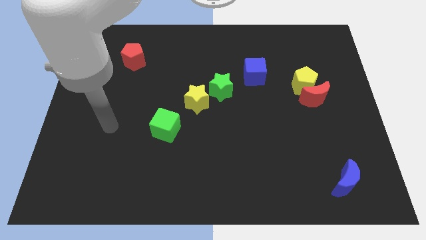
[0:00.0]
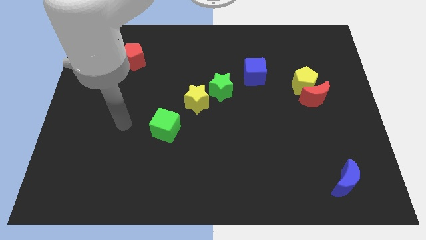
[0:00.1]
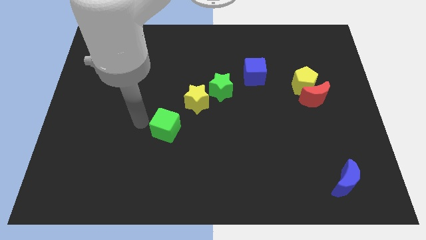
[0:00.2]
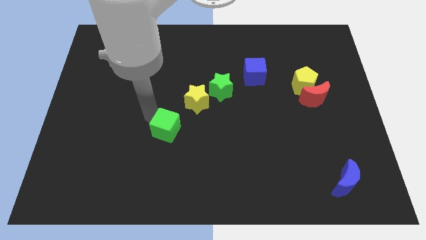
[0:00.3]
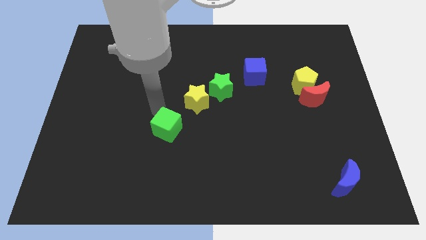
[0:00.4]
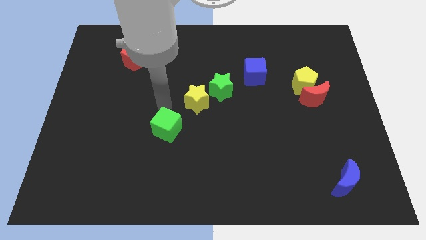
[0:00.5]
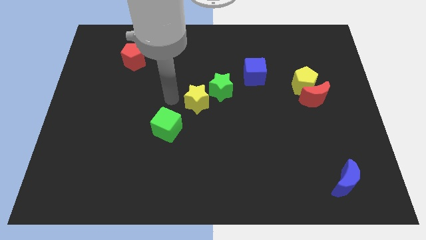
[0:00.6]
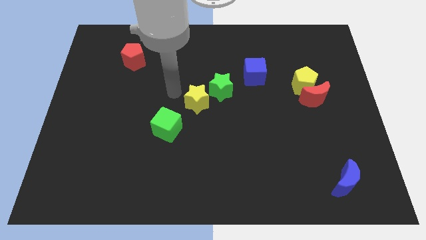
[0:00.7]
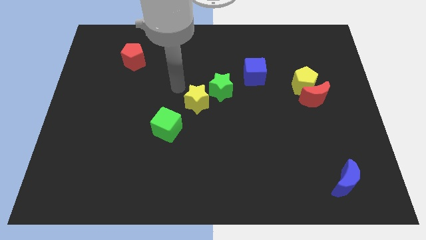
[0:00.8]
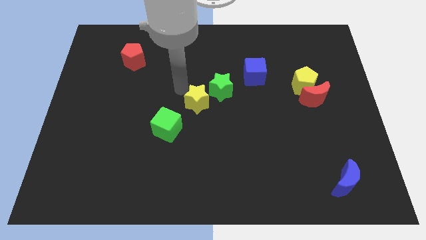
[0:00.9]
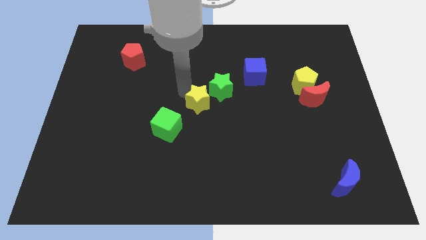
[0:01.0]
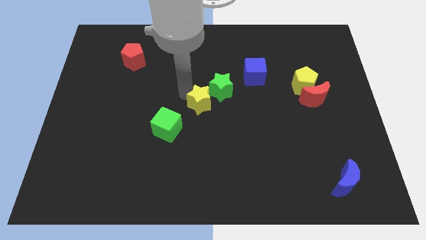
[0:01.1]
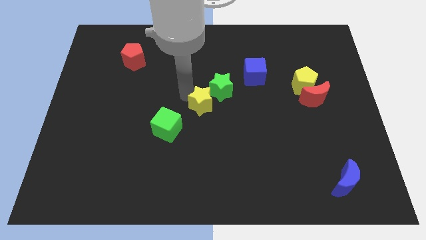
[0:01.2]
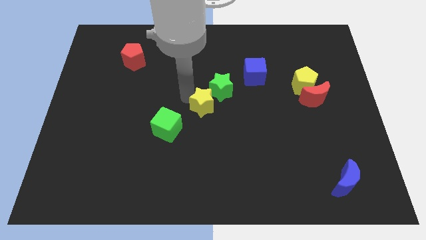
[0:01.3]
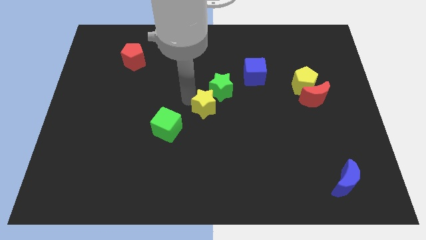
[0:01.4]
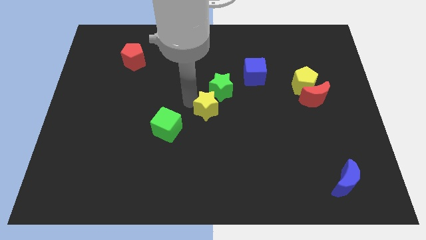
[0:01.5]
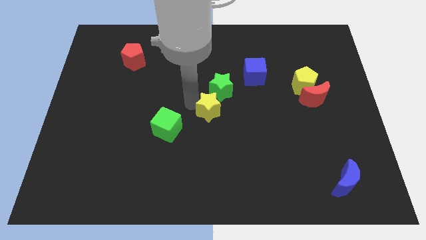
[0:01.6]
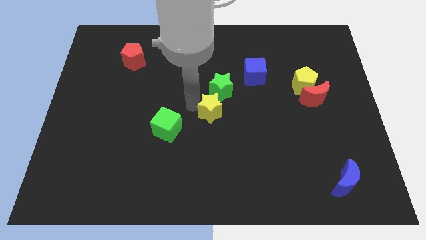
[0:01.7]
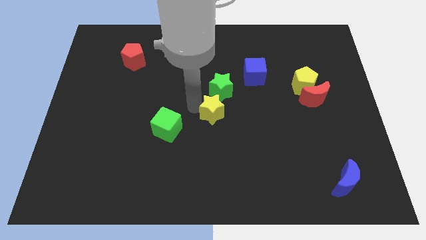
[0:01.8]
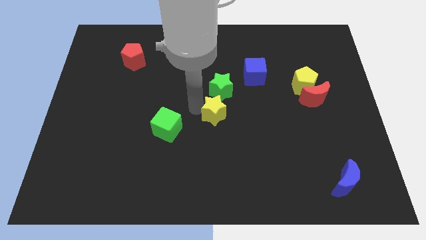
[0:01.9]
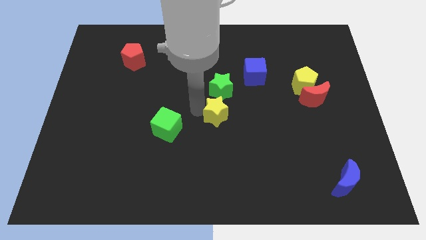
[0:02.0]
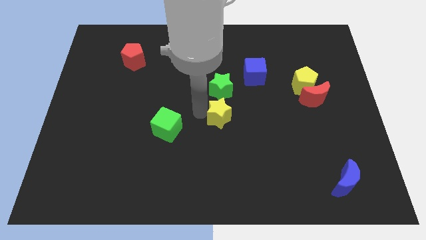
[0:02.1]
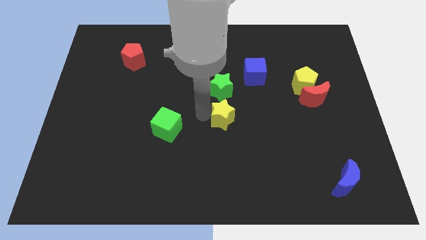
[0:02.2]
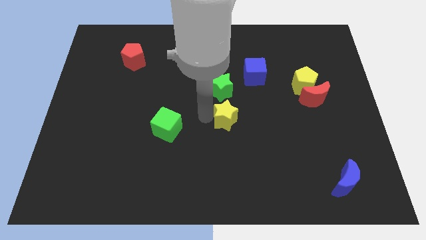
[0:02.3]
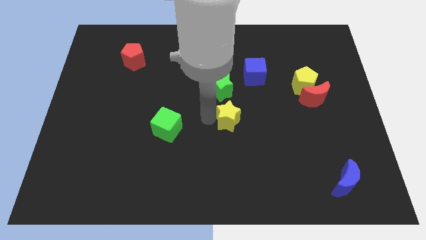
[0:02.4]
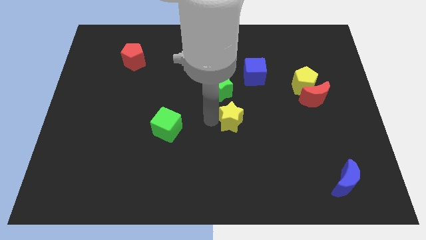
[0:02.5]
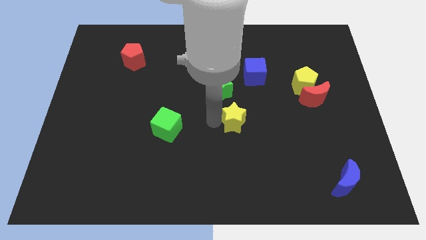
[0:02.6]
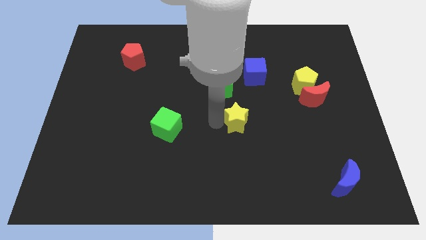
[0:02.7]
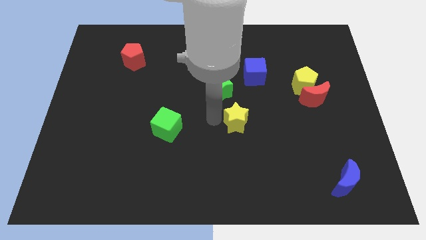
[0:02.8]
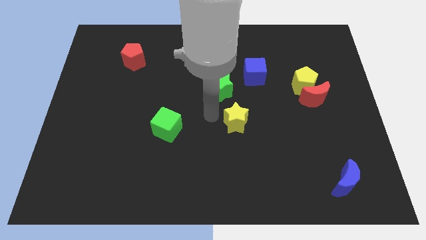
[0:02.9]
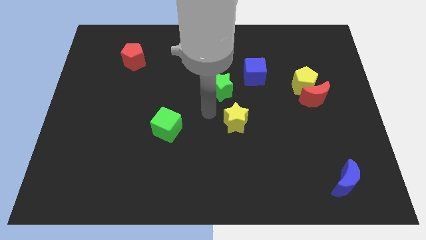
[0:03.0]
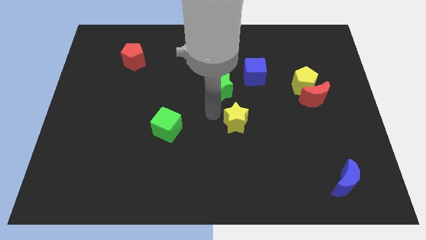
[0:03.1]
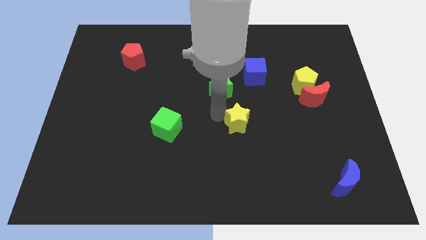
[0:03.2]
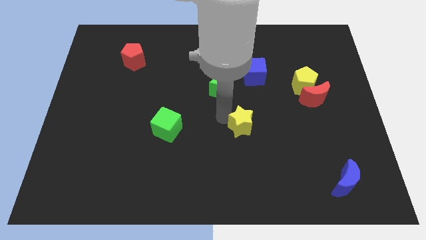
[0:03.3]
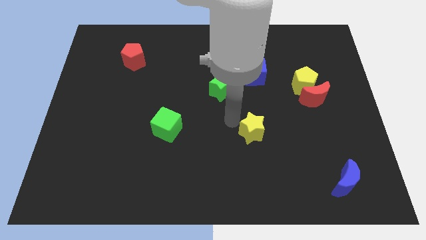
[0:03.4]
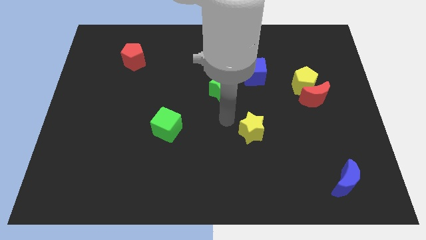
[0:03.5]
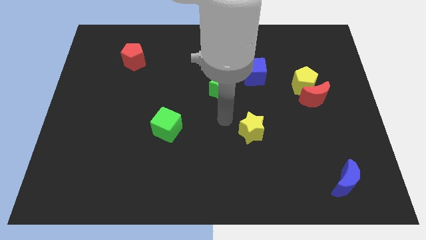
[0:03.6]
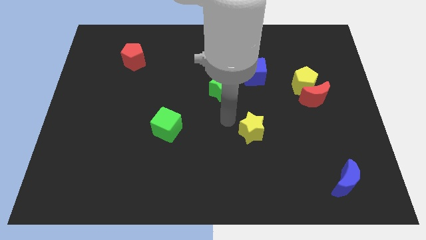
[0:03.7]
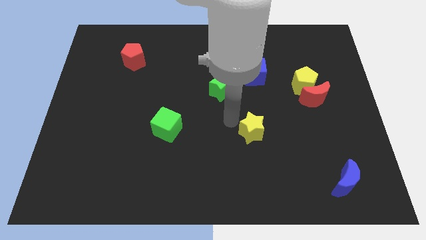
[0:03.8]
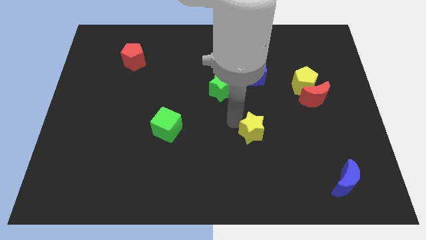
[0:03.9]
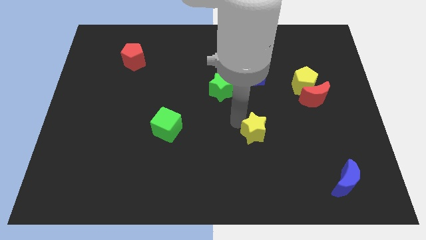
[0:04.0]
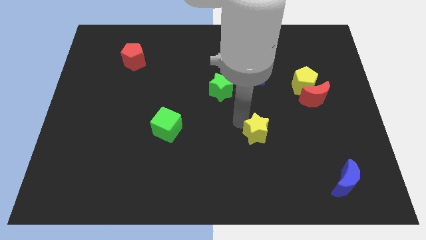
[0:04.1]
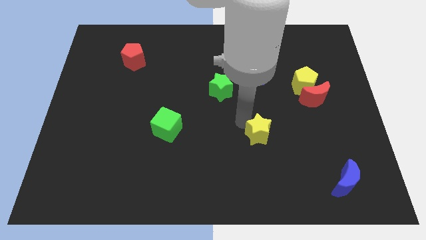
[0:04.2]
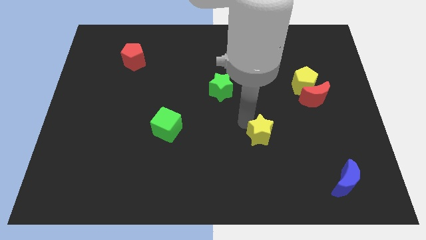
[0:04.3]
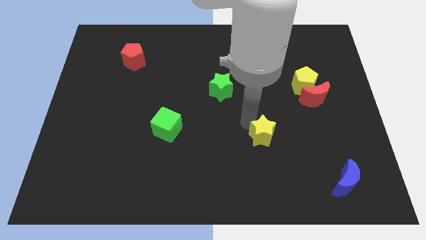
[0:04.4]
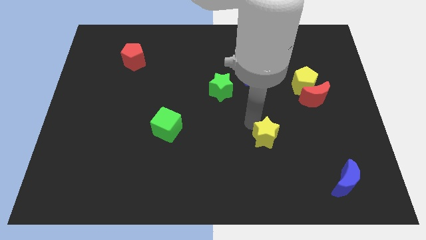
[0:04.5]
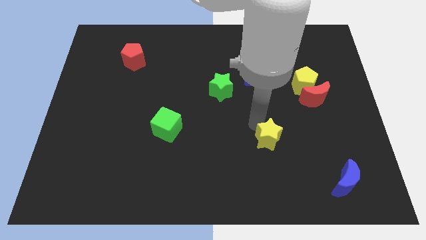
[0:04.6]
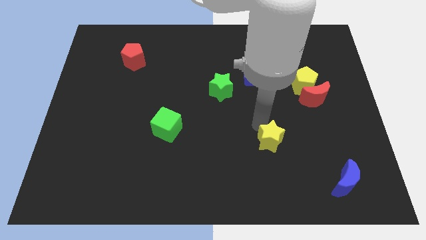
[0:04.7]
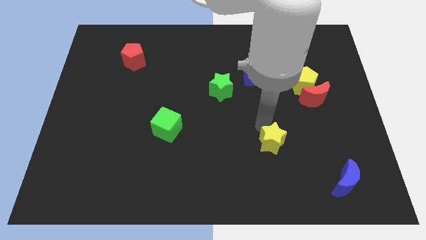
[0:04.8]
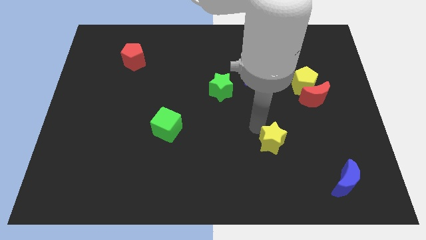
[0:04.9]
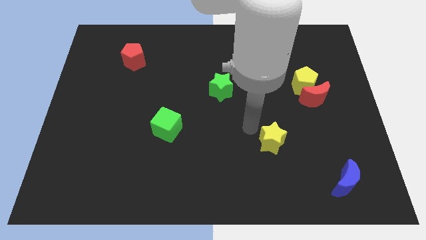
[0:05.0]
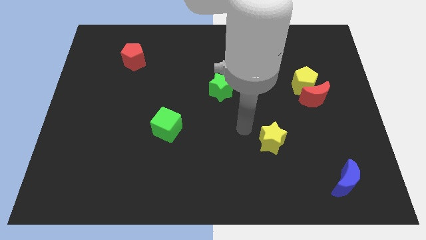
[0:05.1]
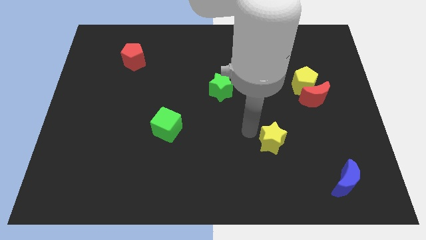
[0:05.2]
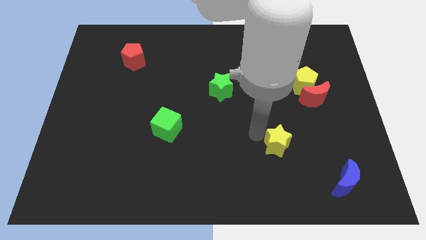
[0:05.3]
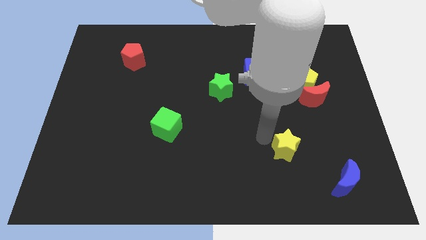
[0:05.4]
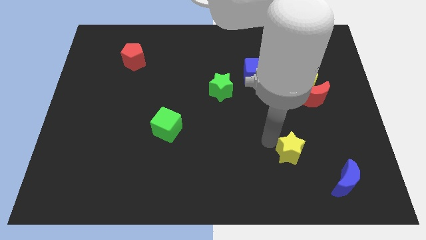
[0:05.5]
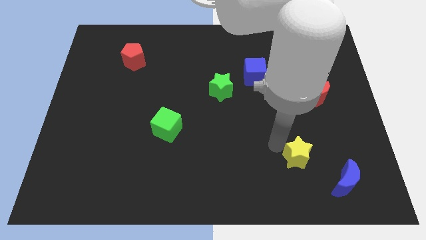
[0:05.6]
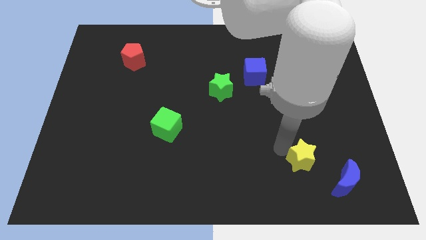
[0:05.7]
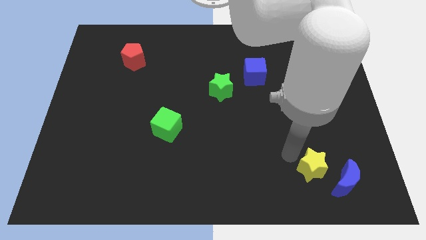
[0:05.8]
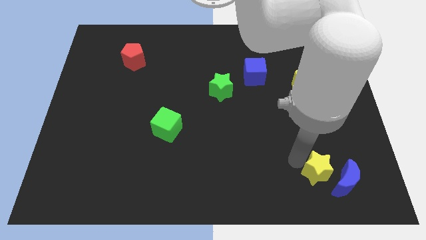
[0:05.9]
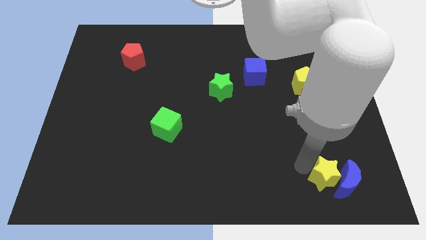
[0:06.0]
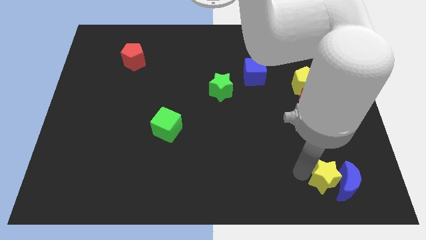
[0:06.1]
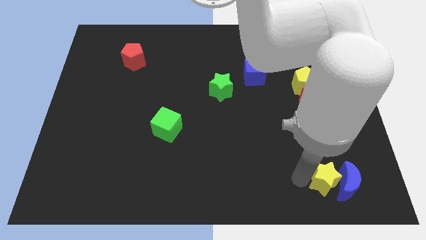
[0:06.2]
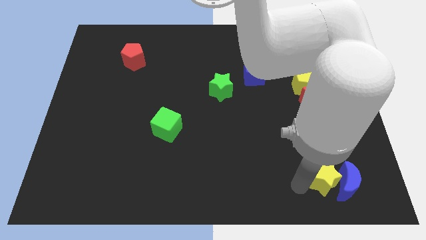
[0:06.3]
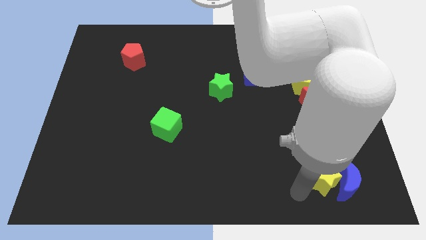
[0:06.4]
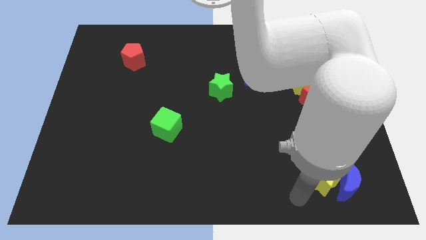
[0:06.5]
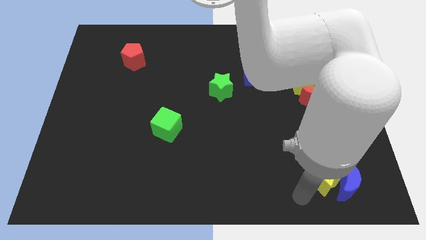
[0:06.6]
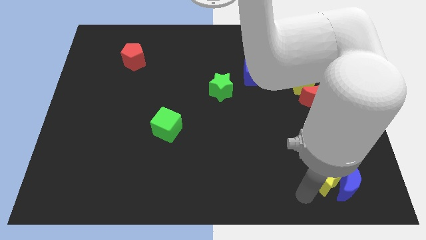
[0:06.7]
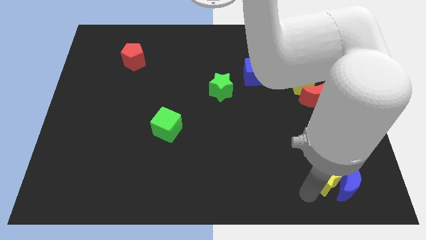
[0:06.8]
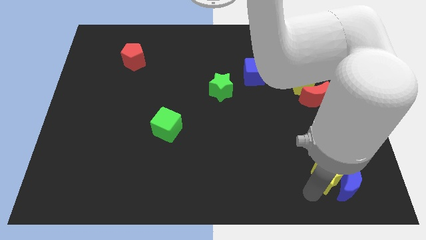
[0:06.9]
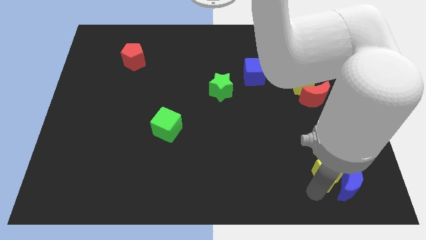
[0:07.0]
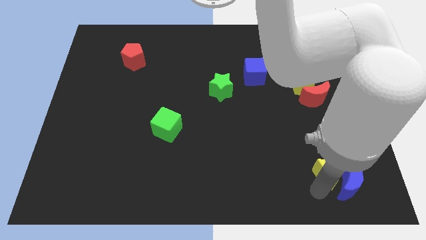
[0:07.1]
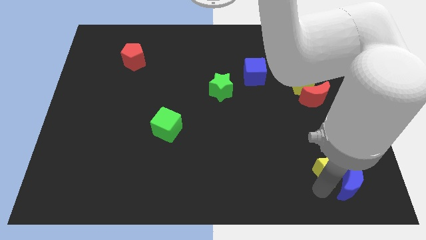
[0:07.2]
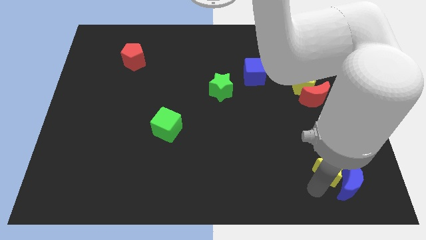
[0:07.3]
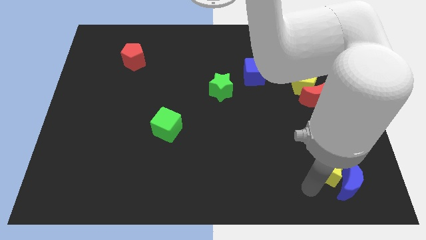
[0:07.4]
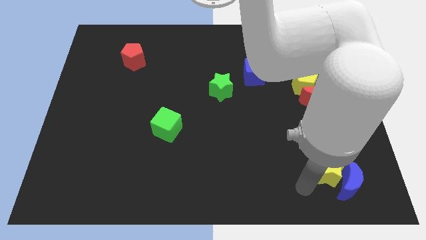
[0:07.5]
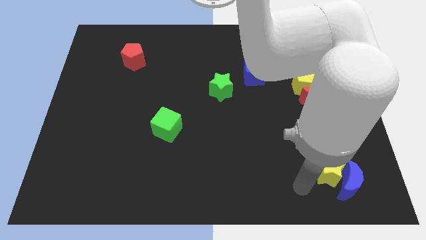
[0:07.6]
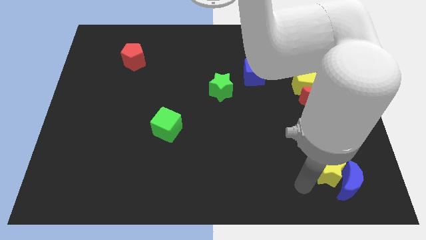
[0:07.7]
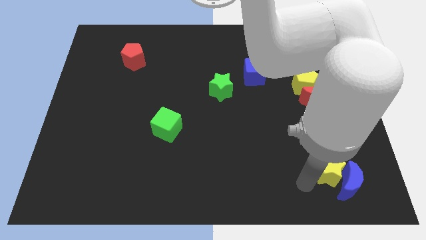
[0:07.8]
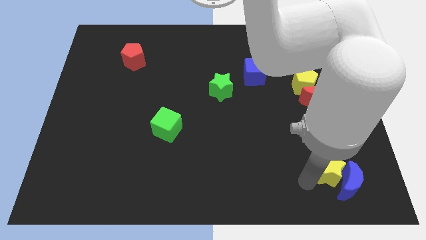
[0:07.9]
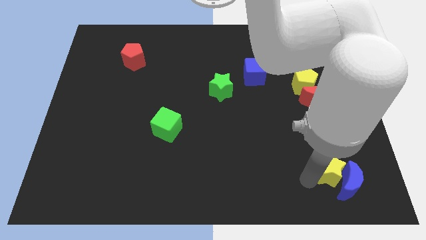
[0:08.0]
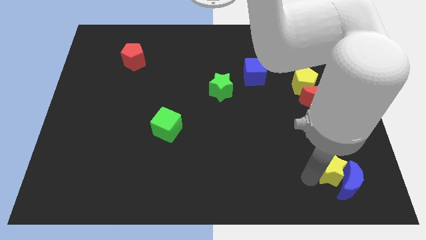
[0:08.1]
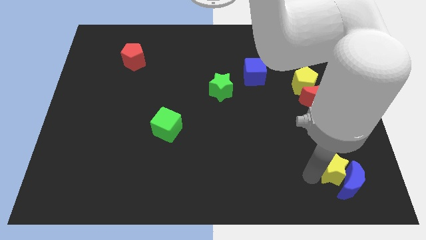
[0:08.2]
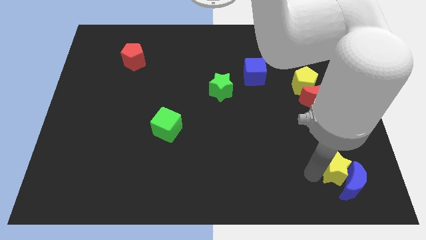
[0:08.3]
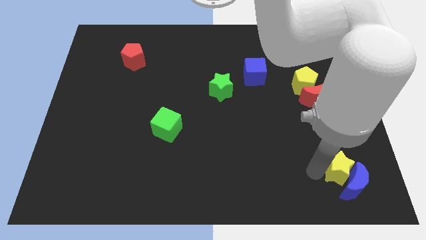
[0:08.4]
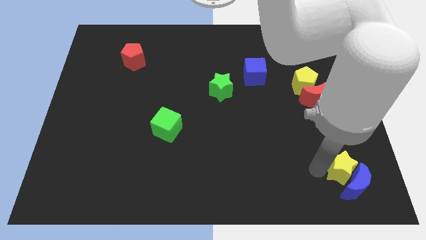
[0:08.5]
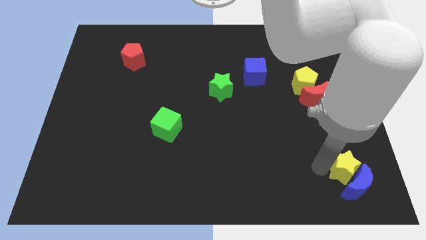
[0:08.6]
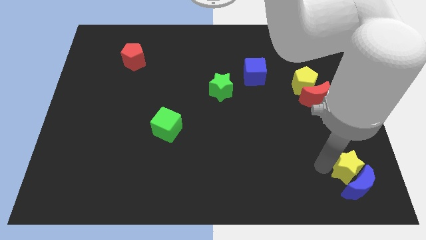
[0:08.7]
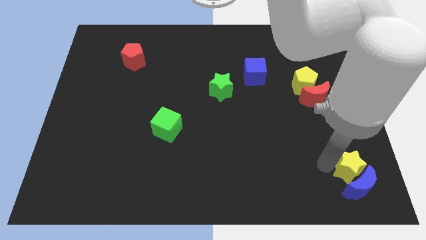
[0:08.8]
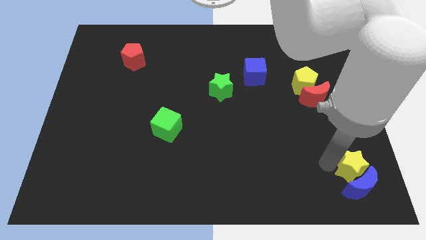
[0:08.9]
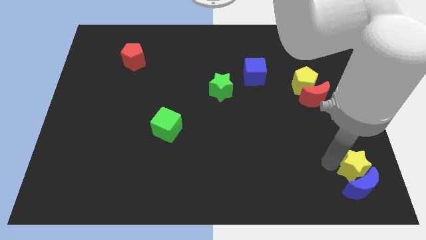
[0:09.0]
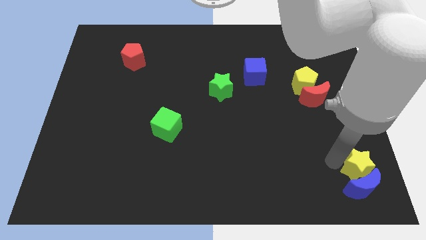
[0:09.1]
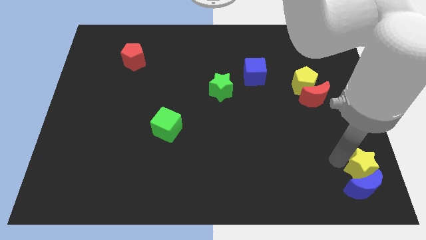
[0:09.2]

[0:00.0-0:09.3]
push the yellow star to the bottom right
